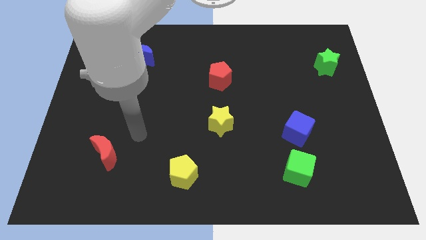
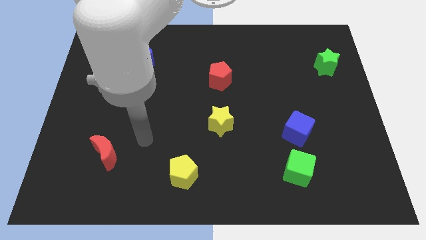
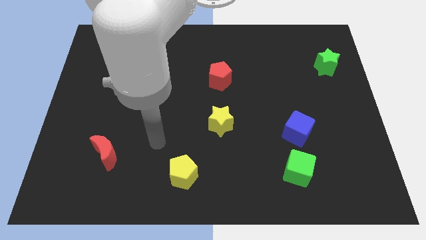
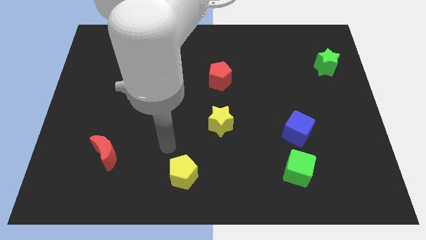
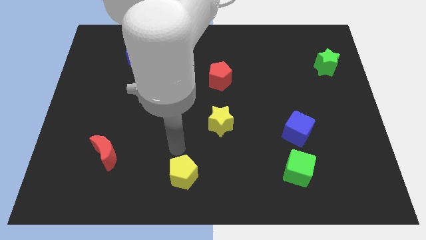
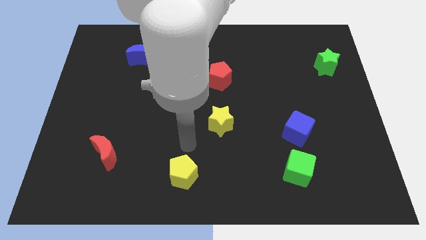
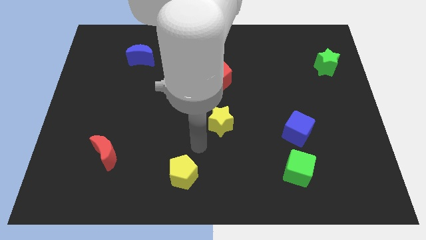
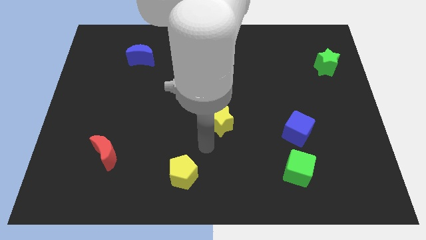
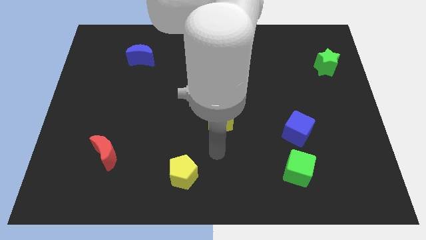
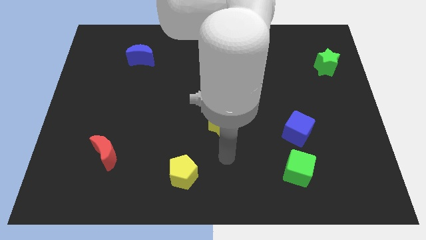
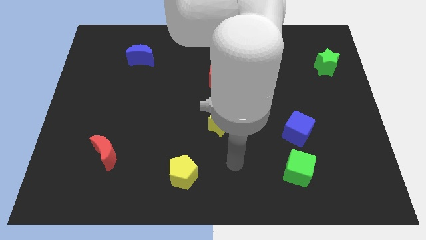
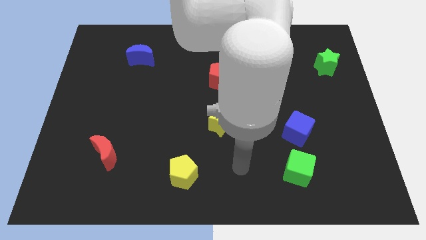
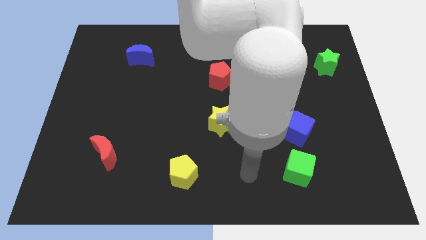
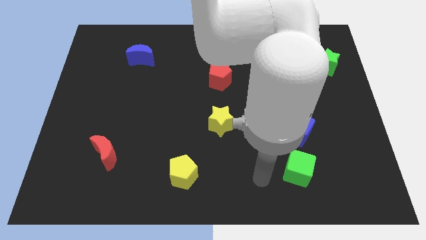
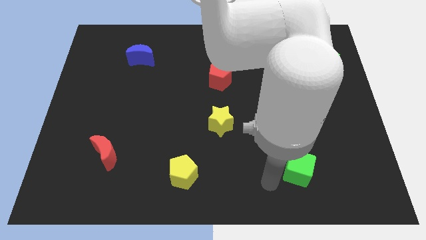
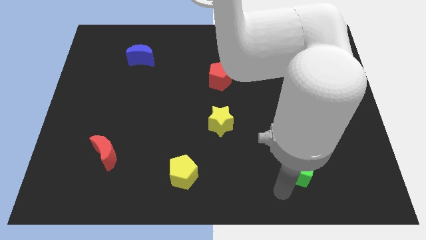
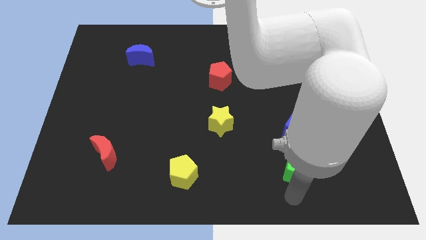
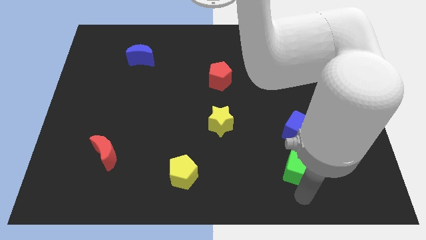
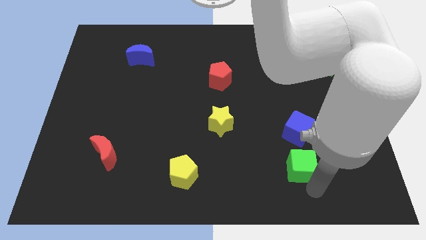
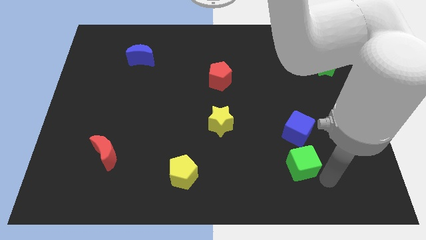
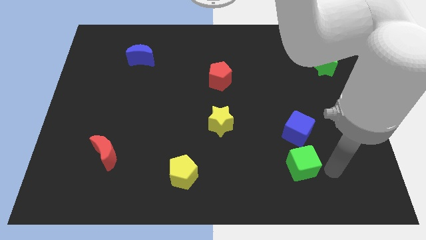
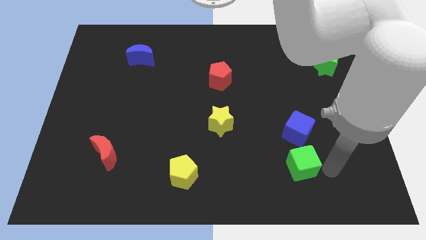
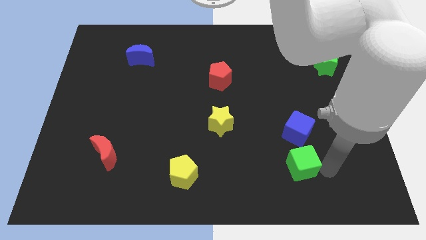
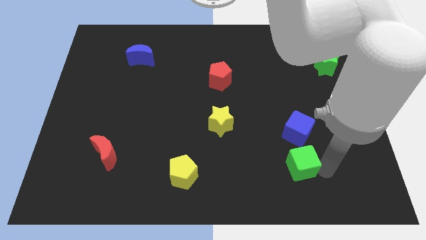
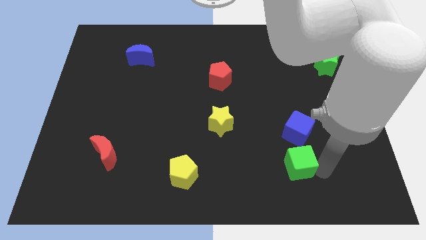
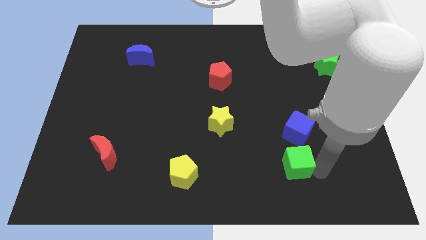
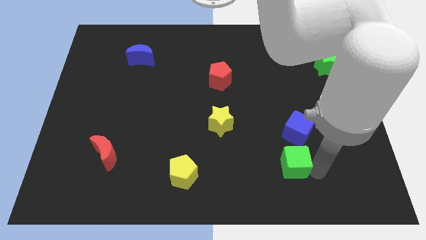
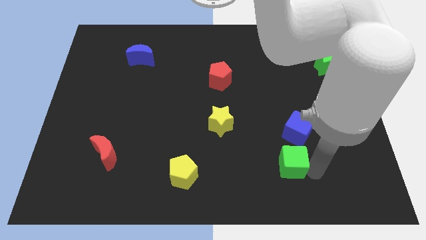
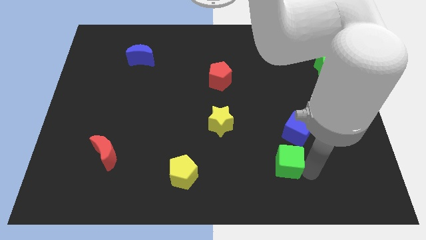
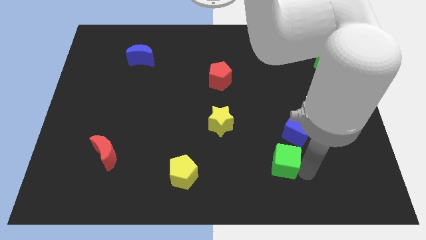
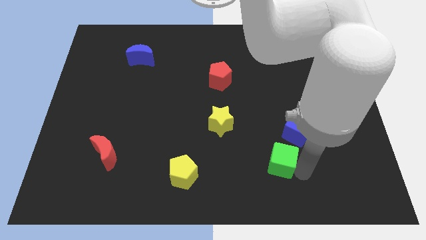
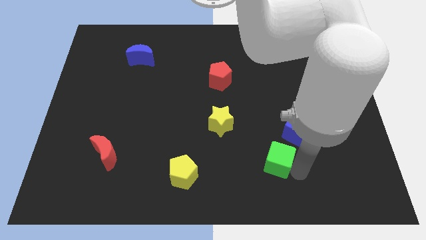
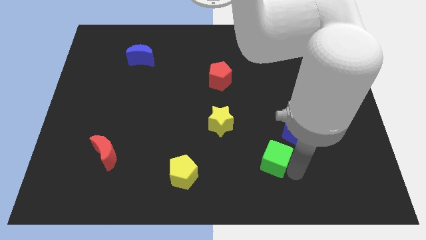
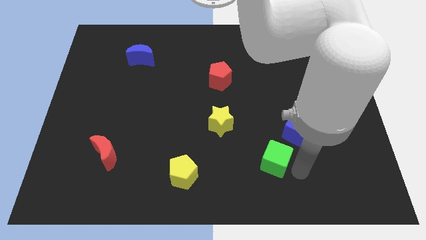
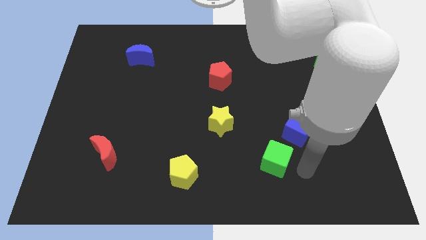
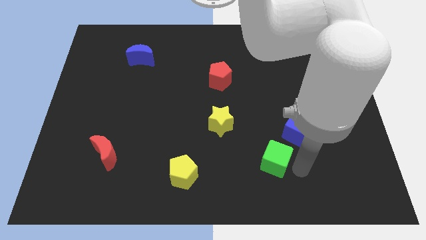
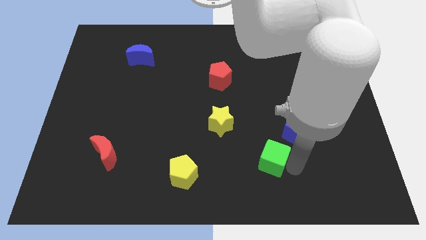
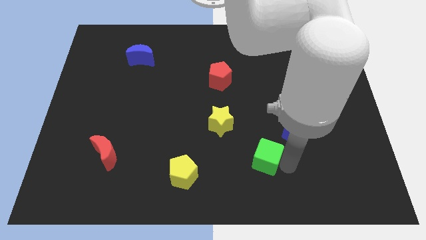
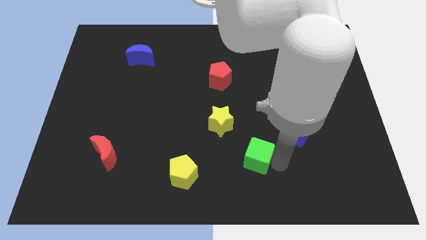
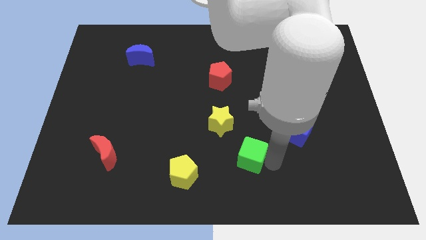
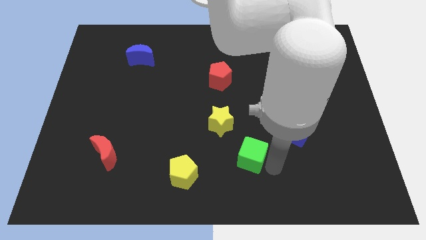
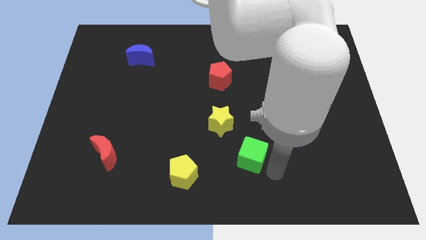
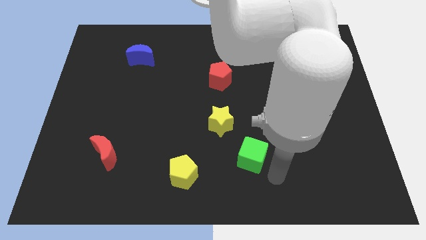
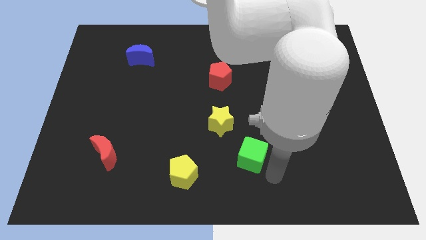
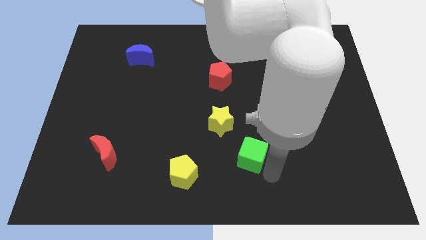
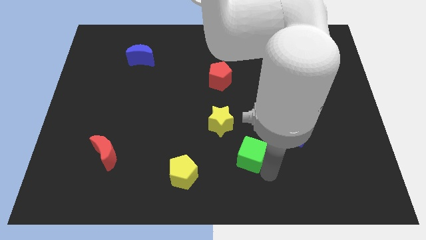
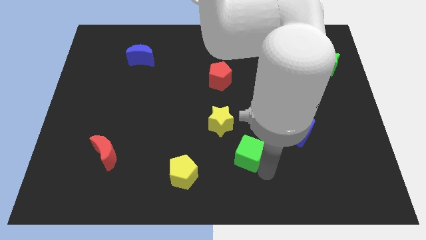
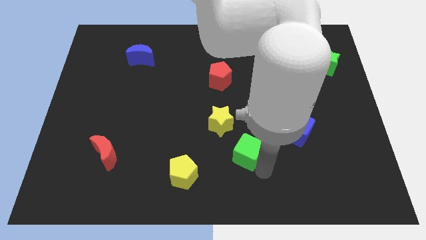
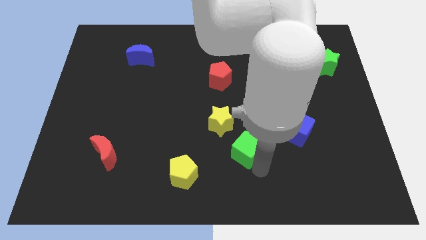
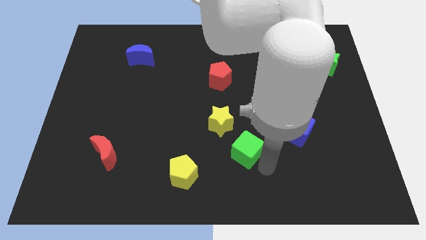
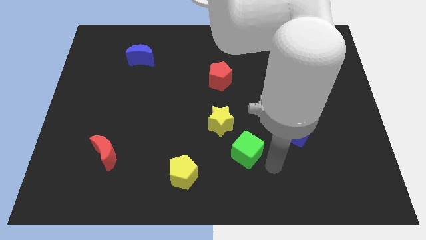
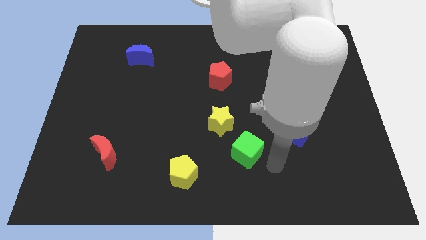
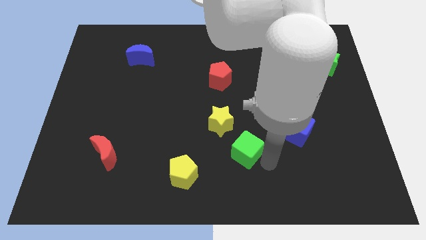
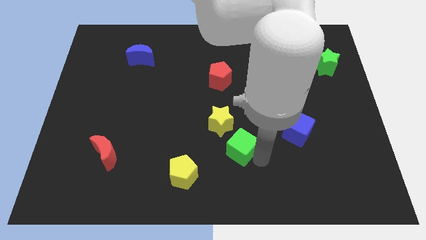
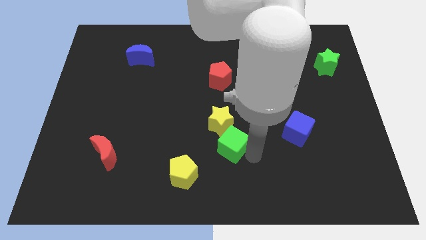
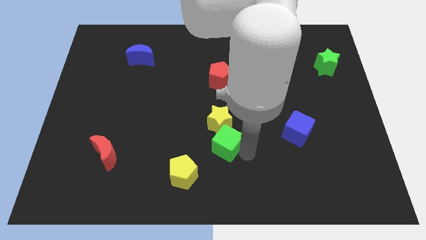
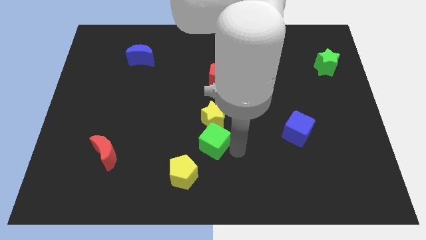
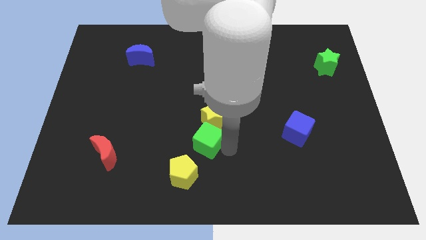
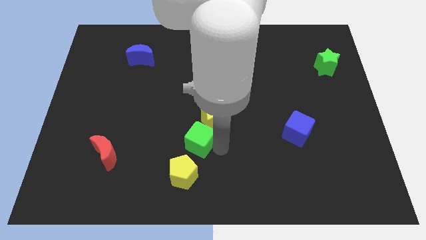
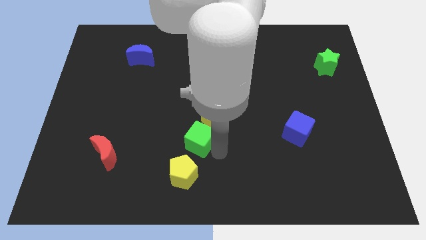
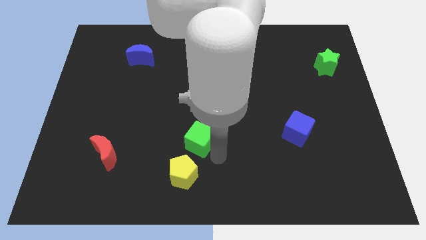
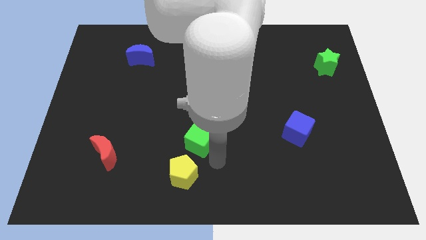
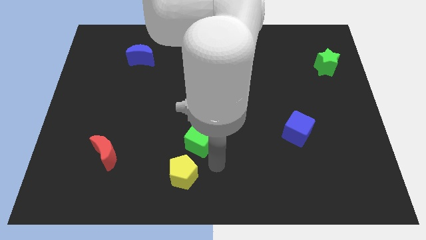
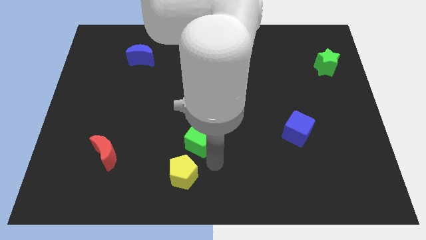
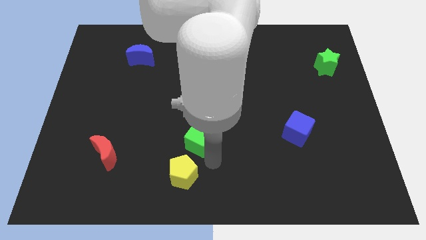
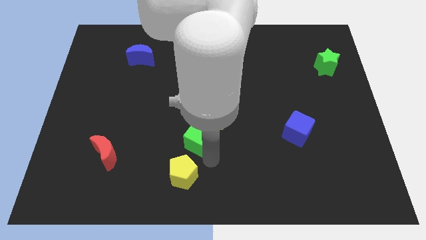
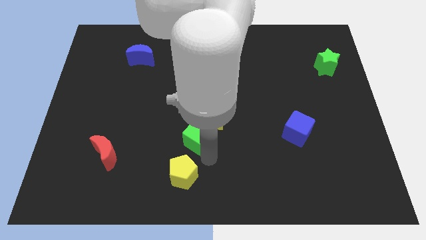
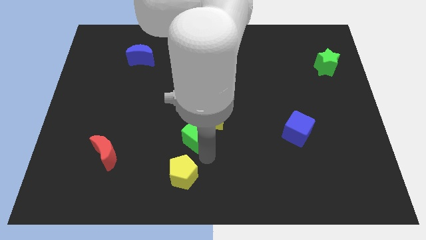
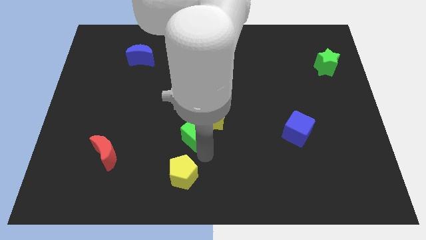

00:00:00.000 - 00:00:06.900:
put the green cube to the left of the yellow star
